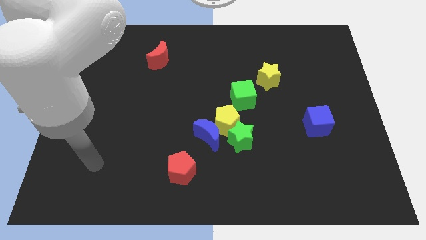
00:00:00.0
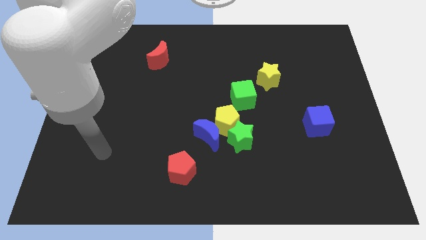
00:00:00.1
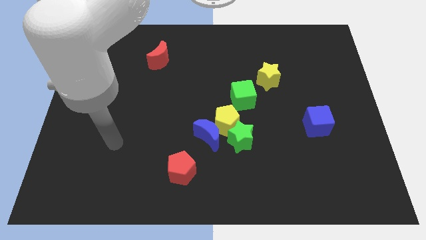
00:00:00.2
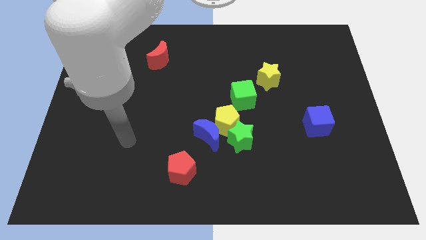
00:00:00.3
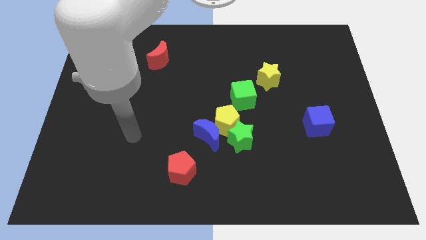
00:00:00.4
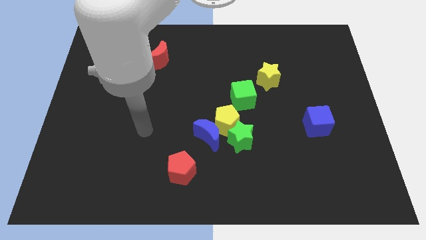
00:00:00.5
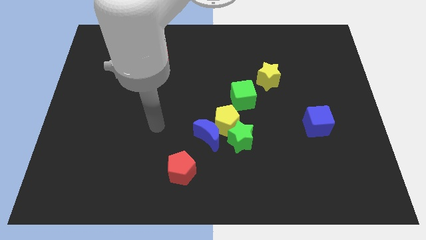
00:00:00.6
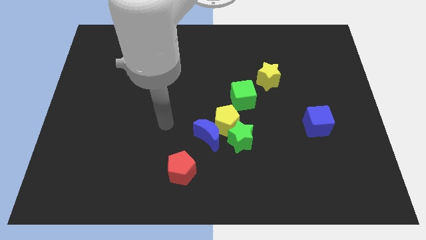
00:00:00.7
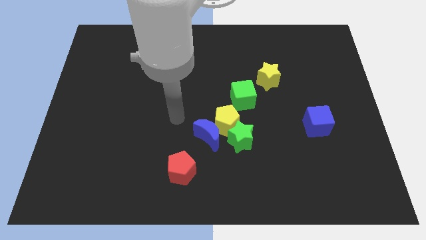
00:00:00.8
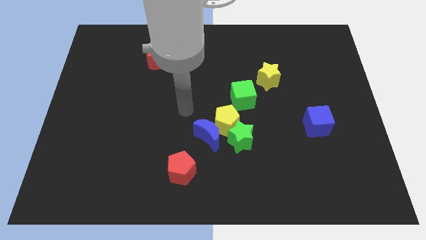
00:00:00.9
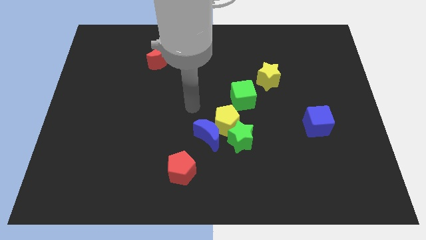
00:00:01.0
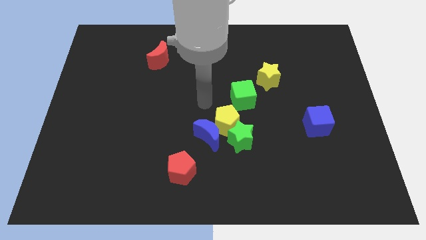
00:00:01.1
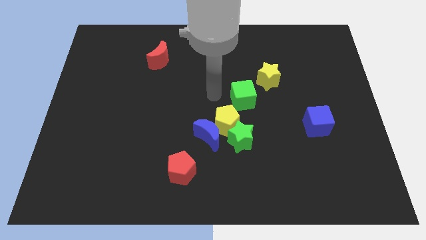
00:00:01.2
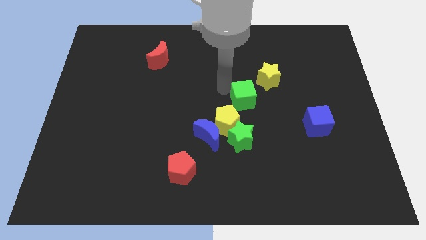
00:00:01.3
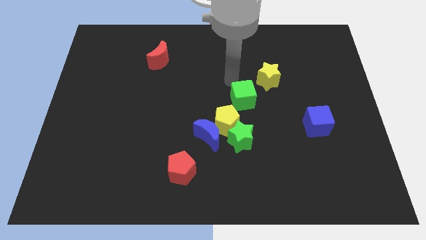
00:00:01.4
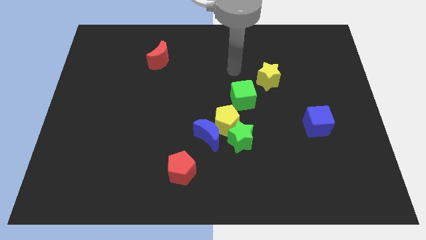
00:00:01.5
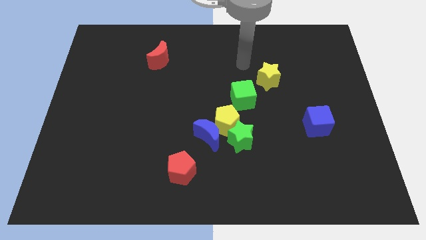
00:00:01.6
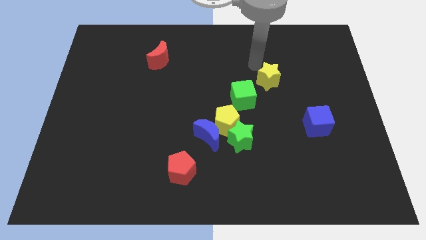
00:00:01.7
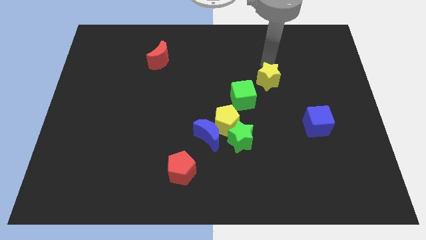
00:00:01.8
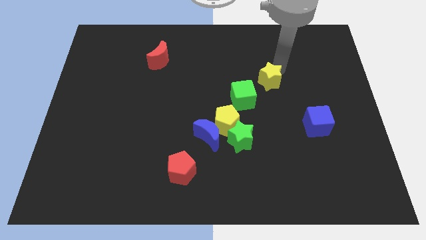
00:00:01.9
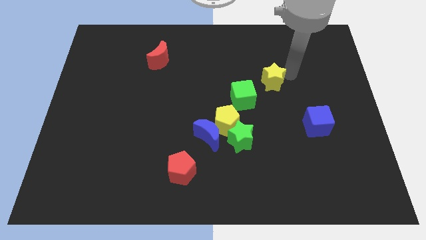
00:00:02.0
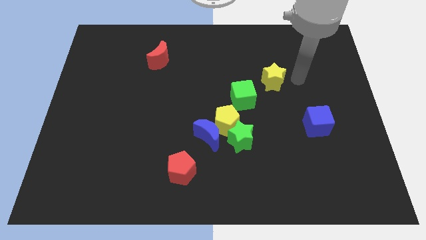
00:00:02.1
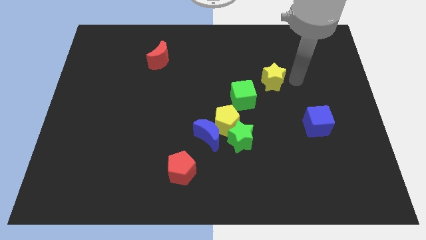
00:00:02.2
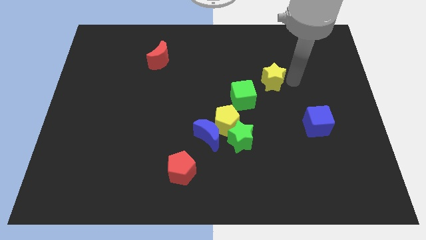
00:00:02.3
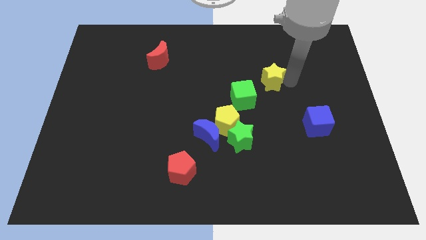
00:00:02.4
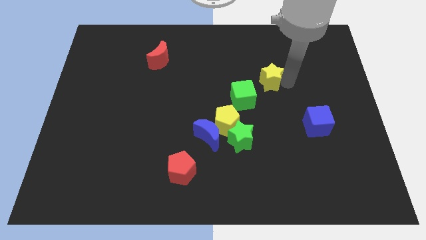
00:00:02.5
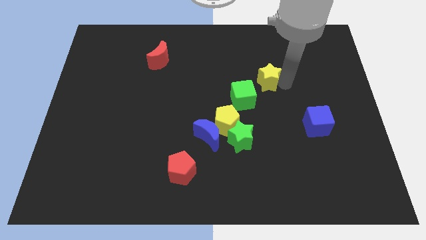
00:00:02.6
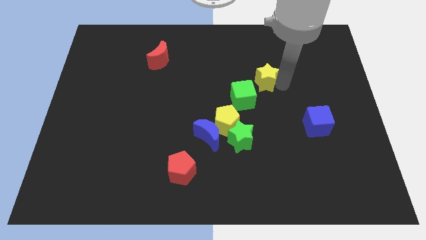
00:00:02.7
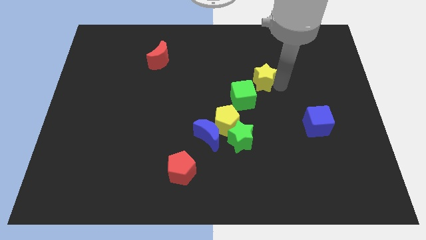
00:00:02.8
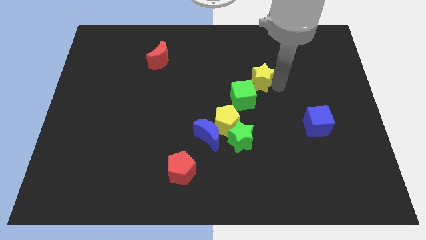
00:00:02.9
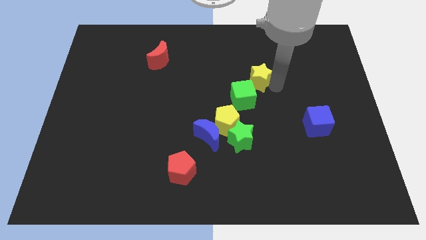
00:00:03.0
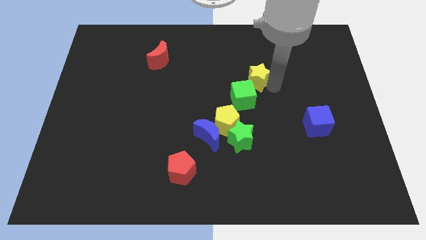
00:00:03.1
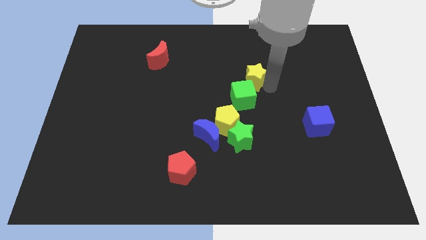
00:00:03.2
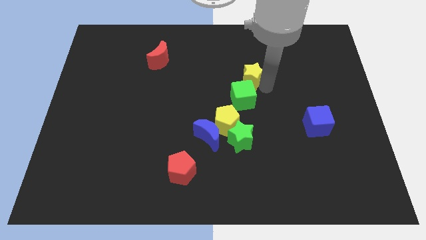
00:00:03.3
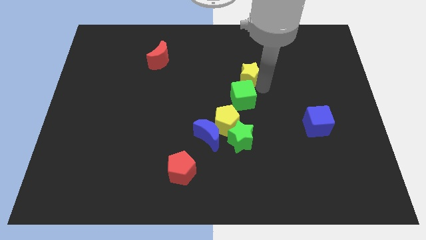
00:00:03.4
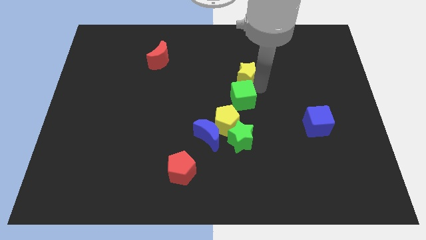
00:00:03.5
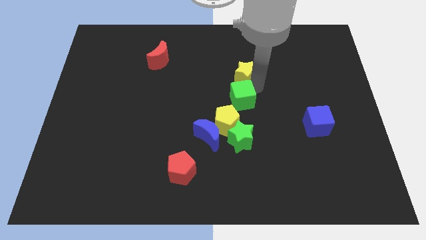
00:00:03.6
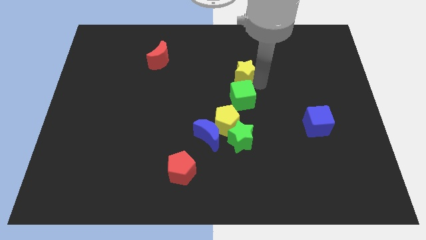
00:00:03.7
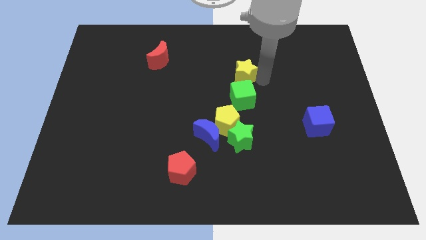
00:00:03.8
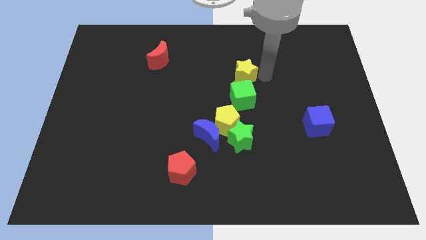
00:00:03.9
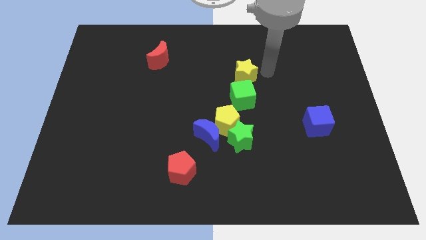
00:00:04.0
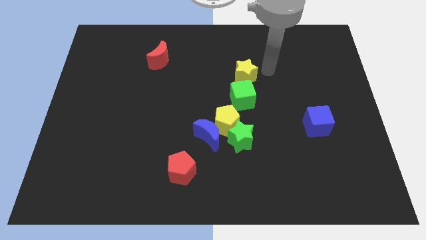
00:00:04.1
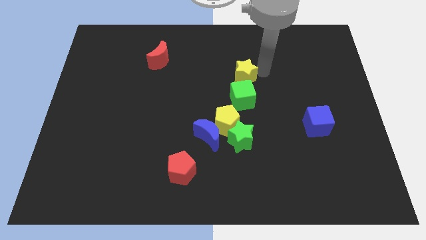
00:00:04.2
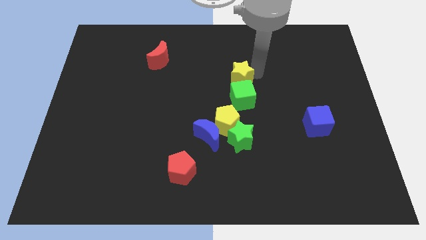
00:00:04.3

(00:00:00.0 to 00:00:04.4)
move the yellow star slightly left

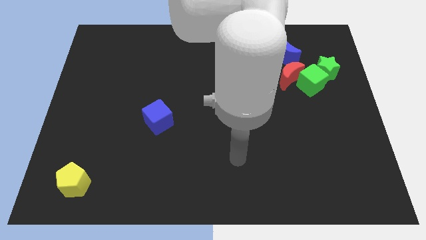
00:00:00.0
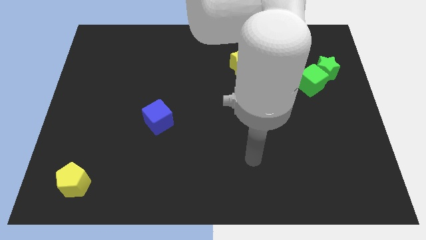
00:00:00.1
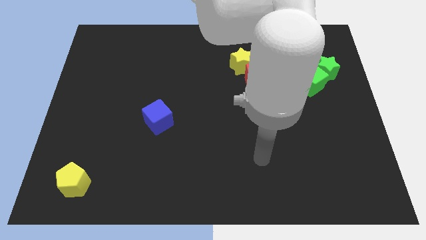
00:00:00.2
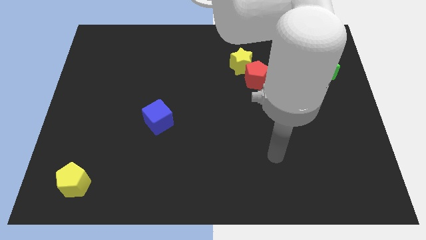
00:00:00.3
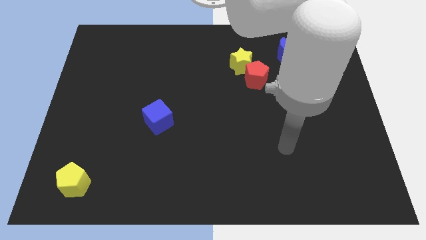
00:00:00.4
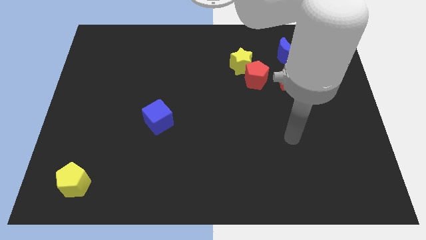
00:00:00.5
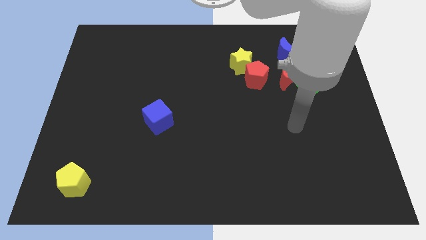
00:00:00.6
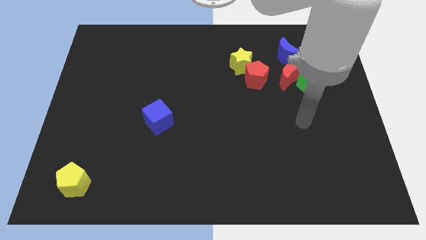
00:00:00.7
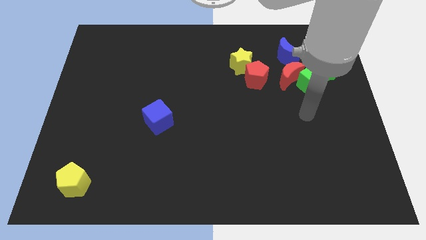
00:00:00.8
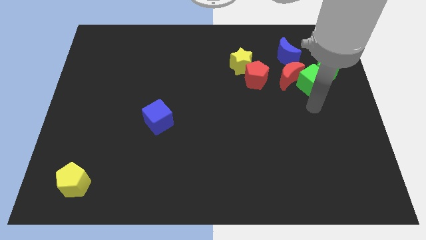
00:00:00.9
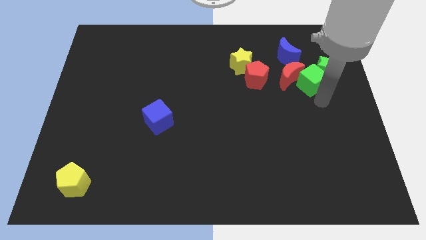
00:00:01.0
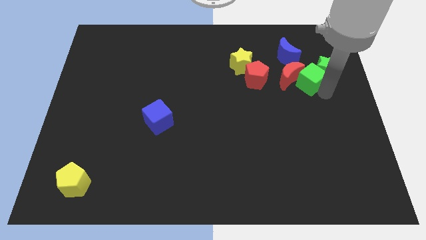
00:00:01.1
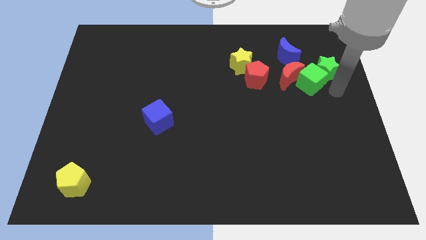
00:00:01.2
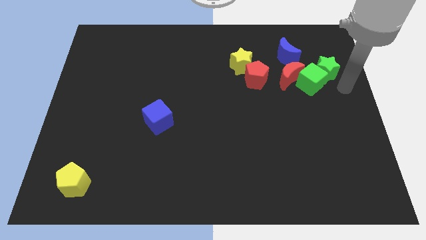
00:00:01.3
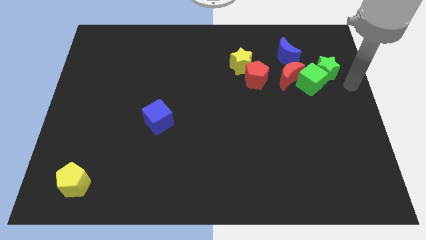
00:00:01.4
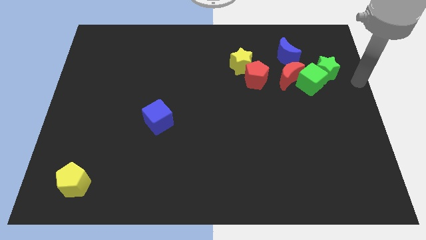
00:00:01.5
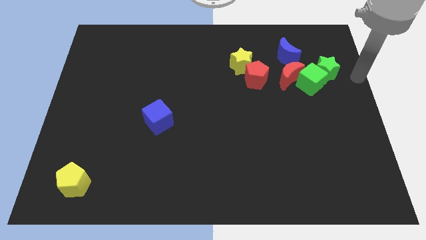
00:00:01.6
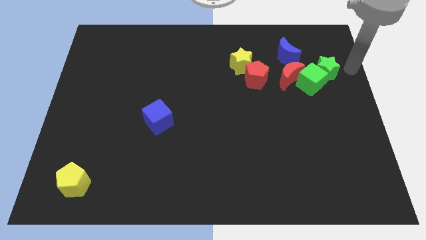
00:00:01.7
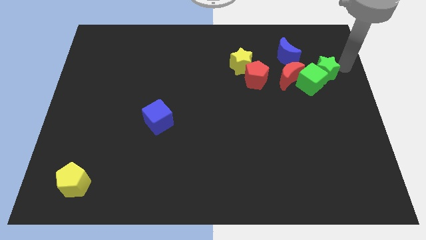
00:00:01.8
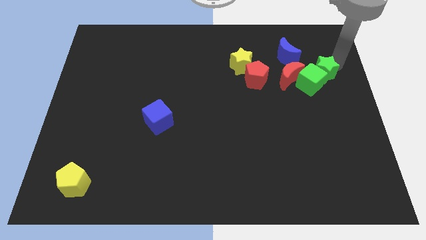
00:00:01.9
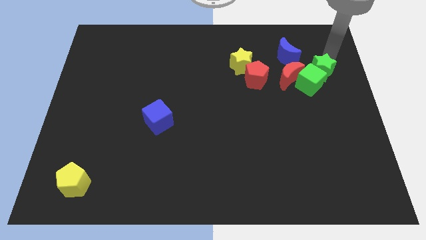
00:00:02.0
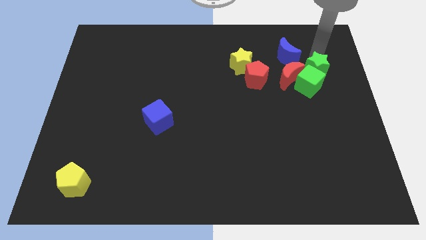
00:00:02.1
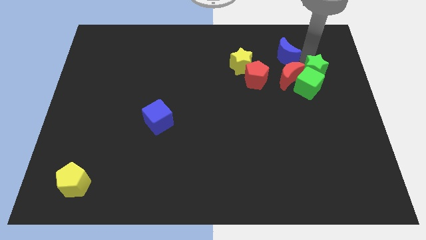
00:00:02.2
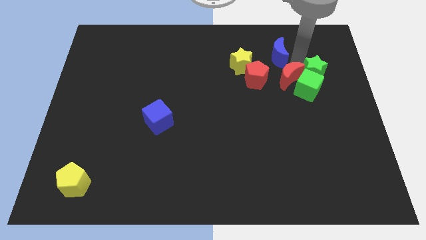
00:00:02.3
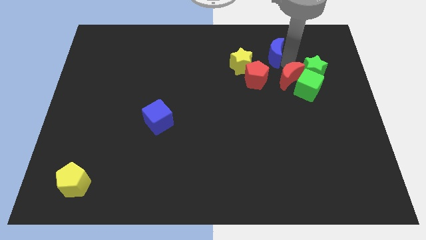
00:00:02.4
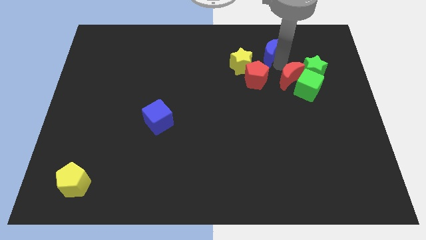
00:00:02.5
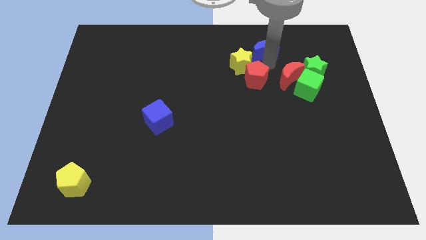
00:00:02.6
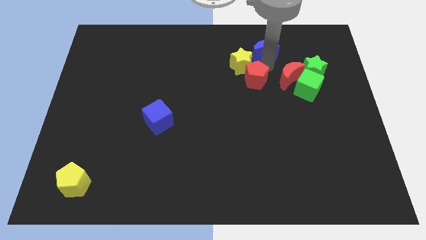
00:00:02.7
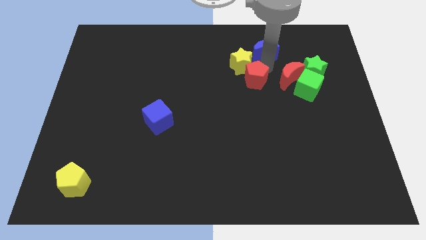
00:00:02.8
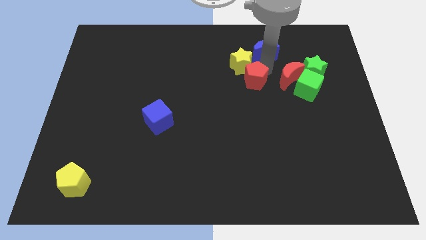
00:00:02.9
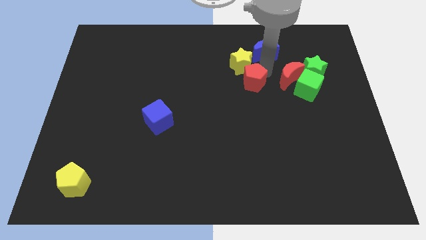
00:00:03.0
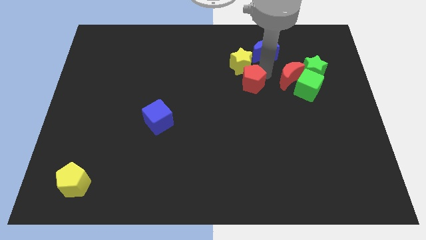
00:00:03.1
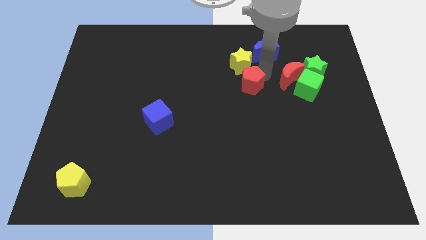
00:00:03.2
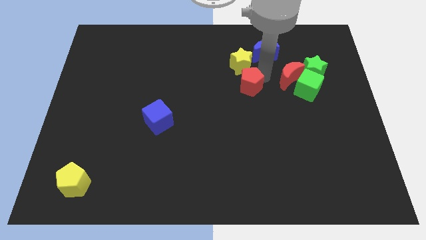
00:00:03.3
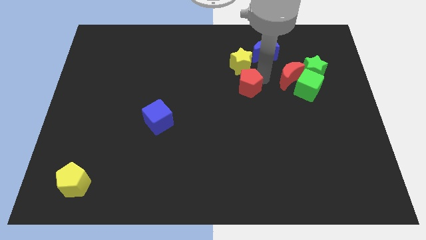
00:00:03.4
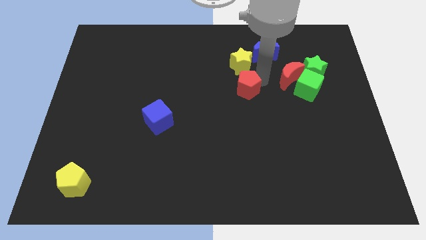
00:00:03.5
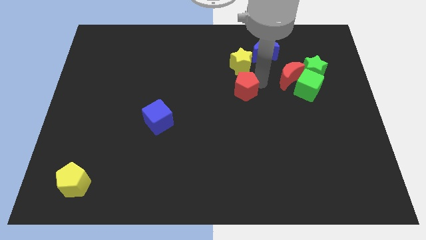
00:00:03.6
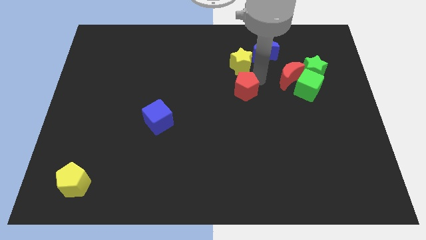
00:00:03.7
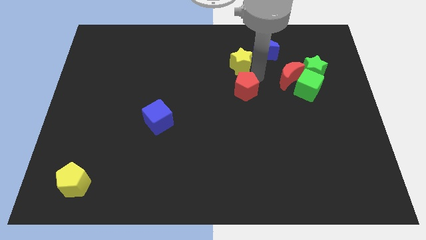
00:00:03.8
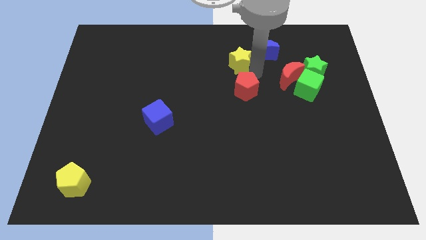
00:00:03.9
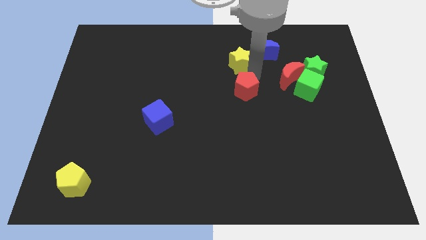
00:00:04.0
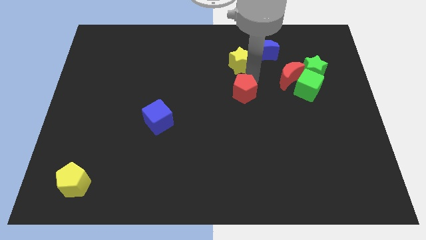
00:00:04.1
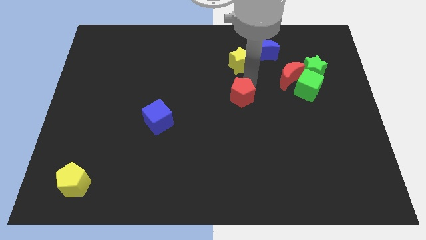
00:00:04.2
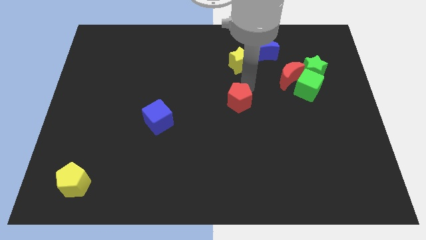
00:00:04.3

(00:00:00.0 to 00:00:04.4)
slightly slide the red pentagon diagonally downwards and left
